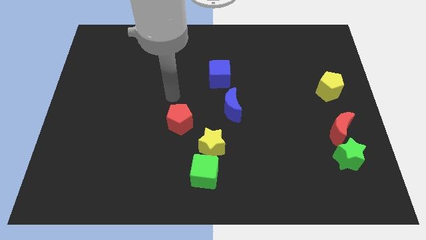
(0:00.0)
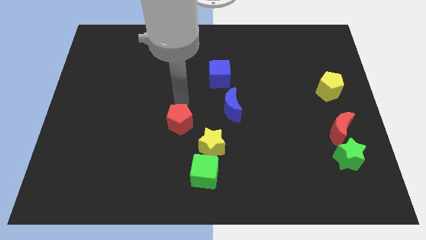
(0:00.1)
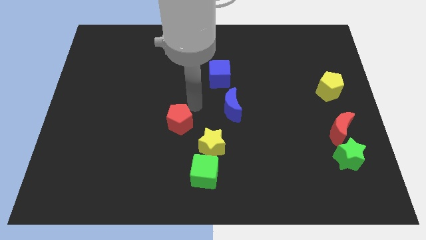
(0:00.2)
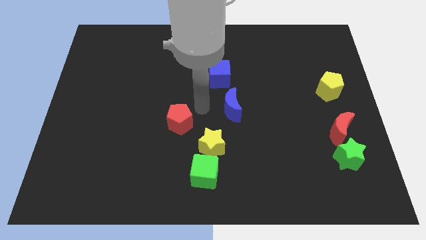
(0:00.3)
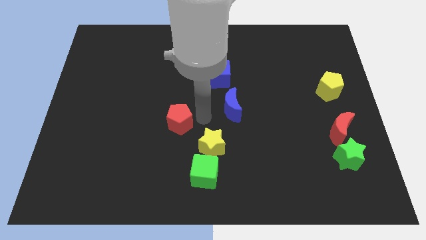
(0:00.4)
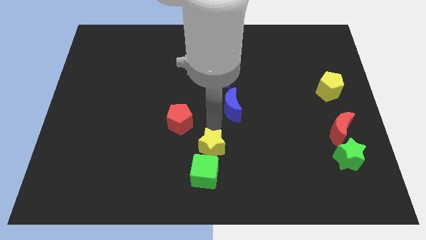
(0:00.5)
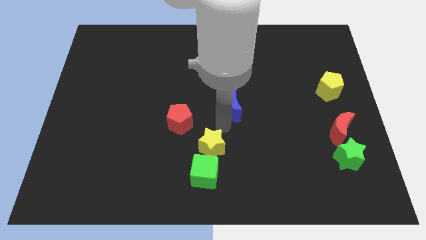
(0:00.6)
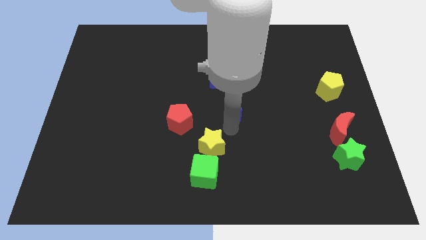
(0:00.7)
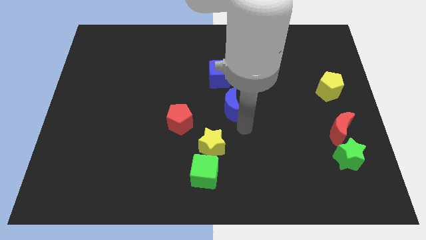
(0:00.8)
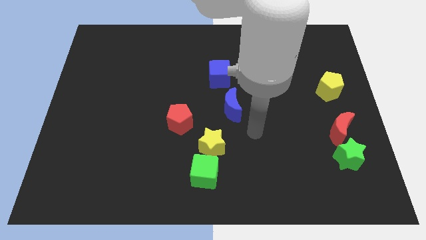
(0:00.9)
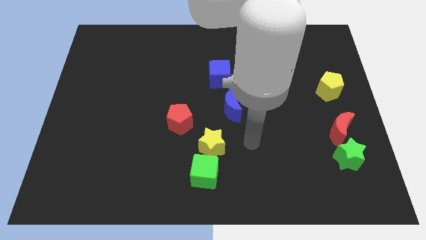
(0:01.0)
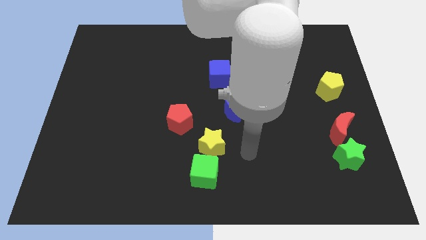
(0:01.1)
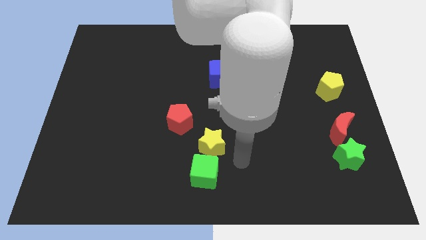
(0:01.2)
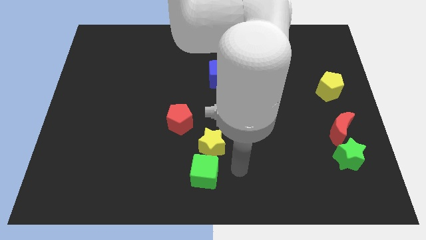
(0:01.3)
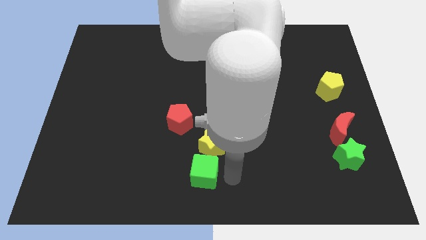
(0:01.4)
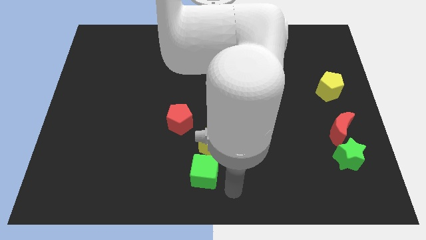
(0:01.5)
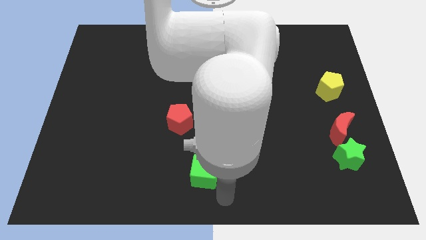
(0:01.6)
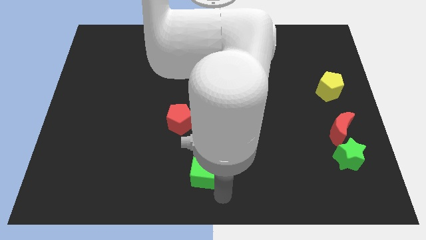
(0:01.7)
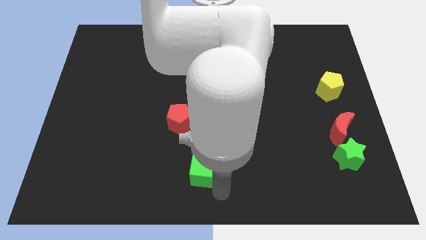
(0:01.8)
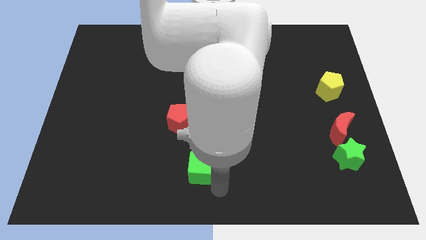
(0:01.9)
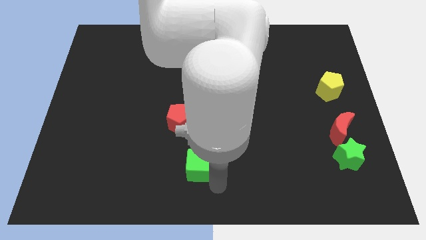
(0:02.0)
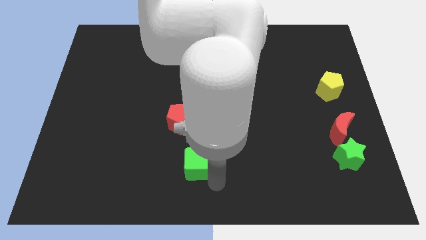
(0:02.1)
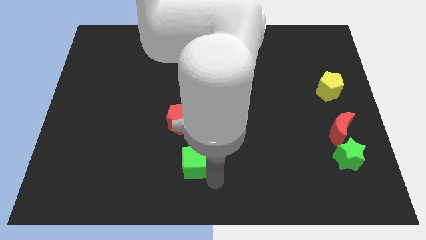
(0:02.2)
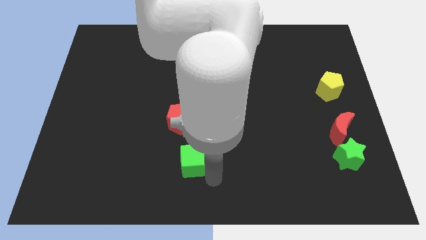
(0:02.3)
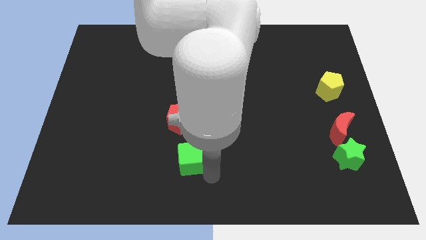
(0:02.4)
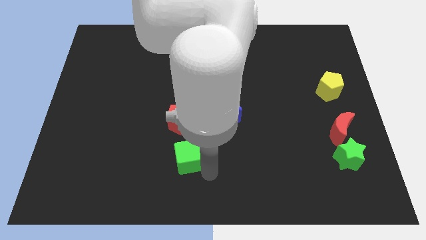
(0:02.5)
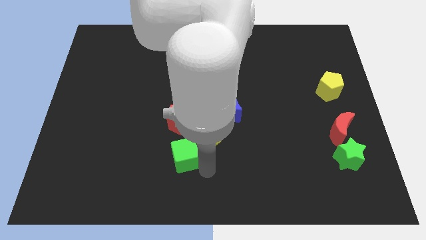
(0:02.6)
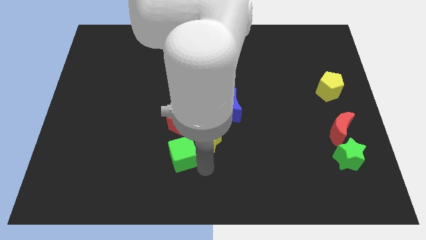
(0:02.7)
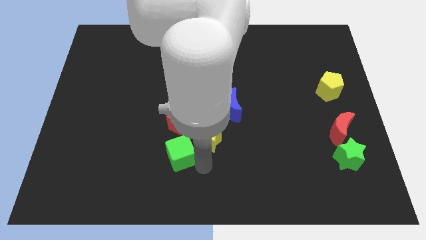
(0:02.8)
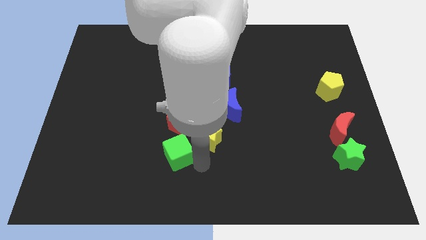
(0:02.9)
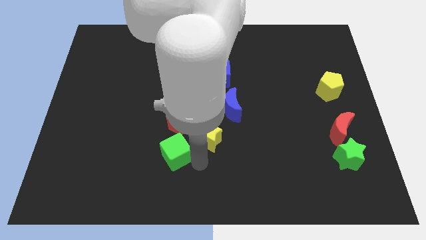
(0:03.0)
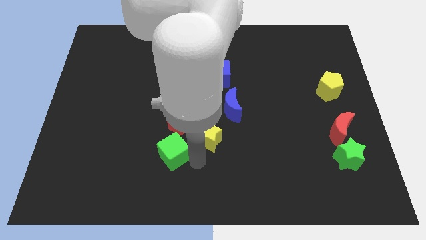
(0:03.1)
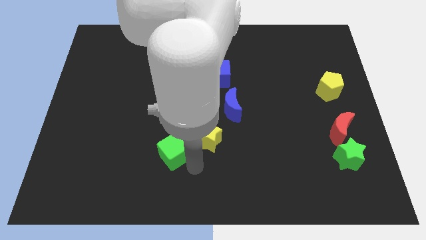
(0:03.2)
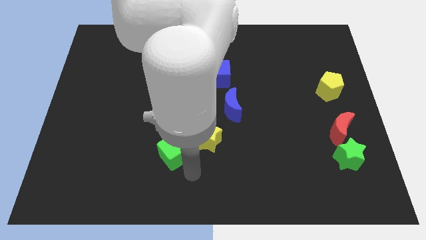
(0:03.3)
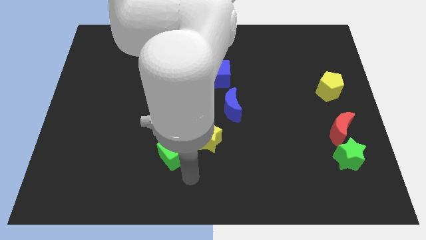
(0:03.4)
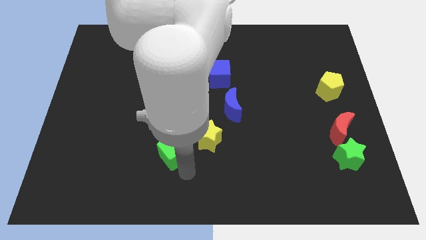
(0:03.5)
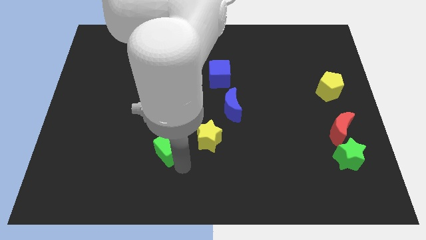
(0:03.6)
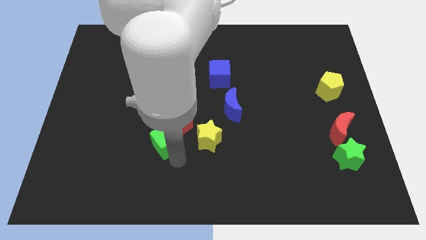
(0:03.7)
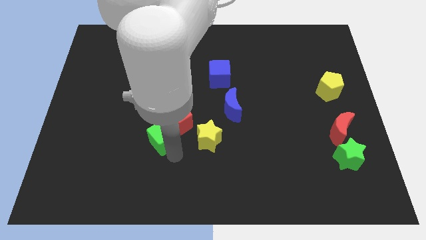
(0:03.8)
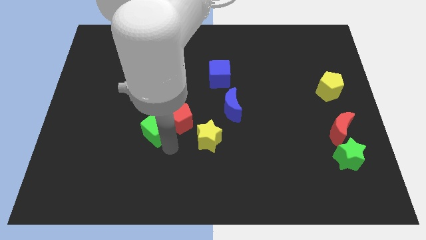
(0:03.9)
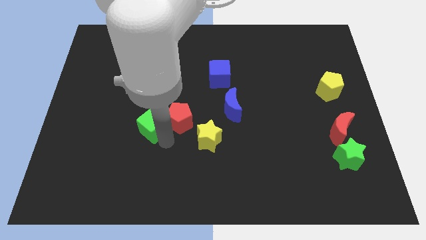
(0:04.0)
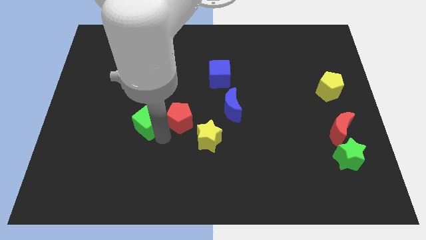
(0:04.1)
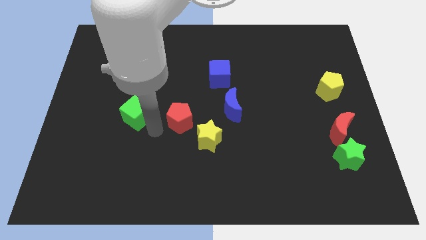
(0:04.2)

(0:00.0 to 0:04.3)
move the green cube diagonally up and left

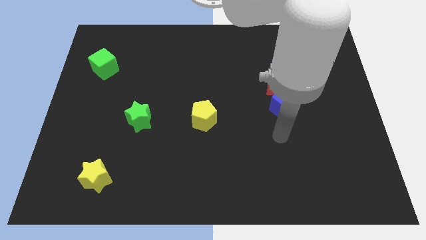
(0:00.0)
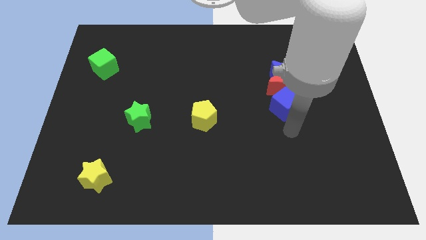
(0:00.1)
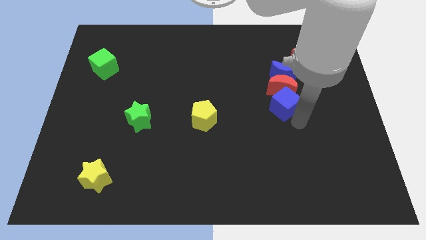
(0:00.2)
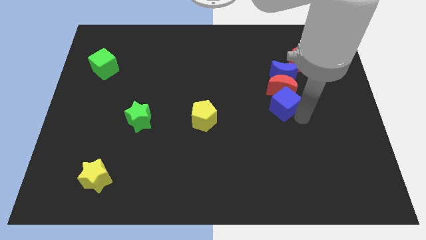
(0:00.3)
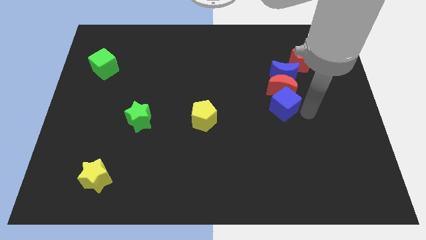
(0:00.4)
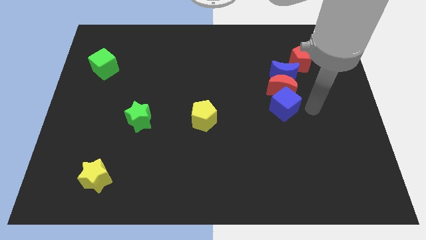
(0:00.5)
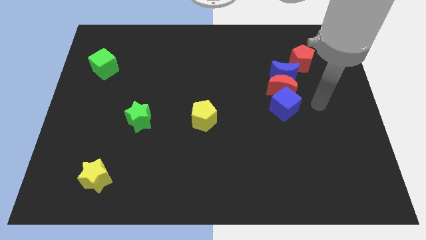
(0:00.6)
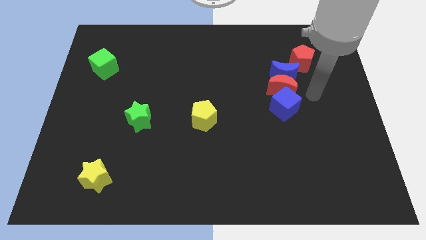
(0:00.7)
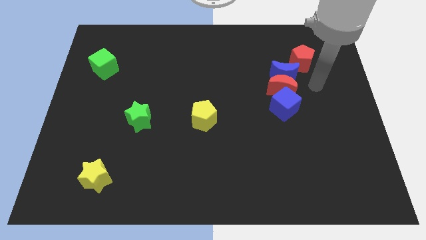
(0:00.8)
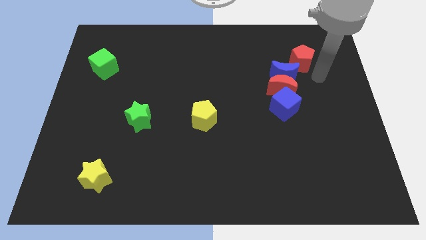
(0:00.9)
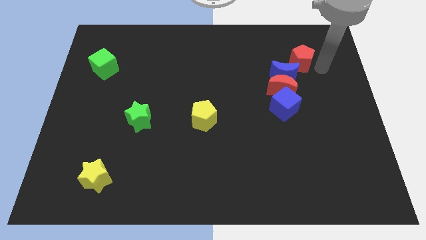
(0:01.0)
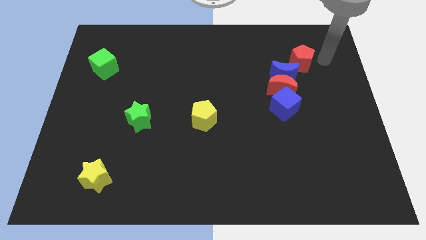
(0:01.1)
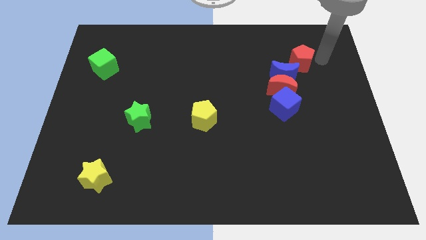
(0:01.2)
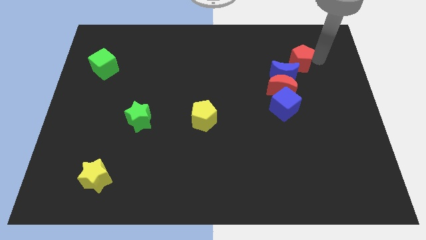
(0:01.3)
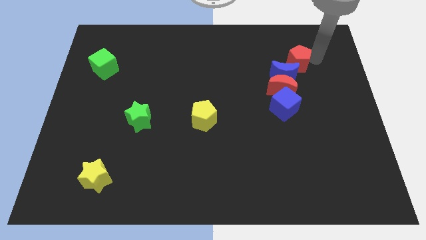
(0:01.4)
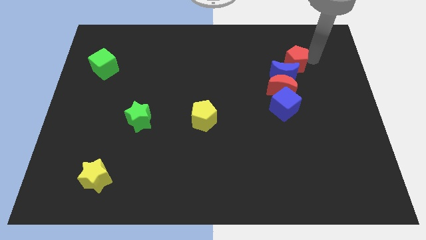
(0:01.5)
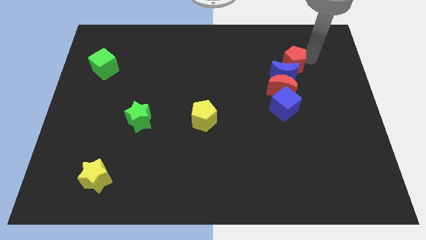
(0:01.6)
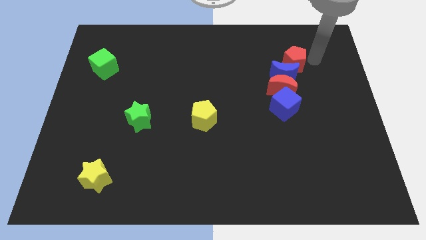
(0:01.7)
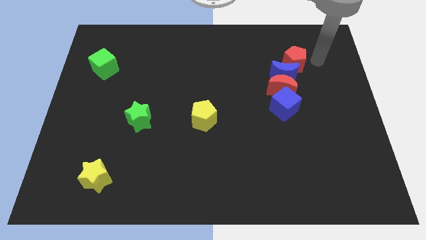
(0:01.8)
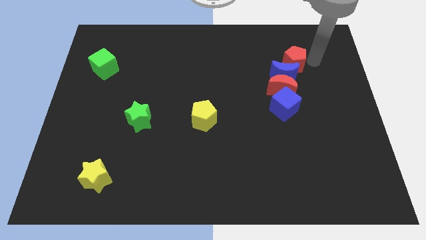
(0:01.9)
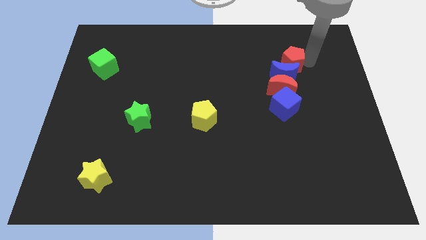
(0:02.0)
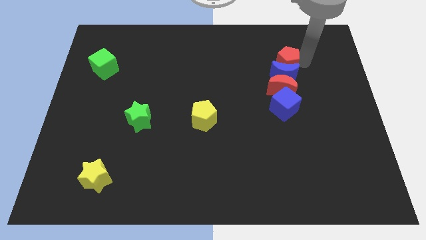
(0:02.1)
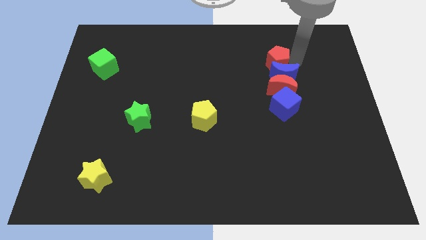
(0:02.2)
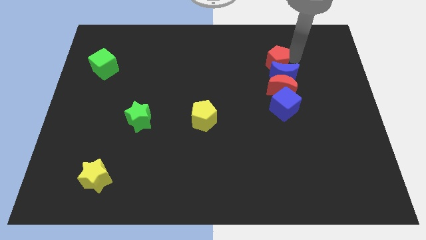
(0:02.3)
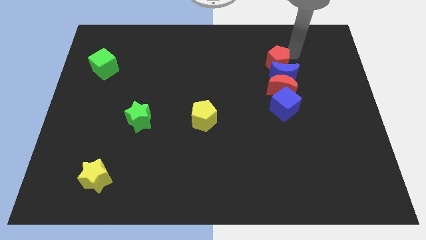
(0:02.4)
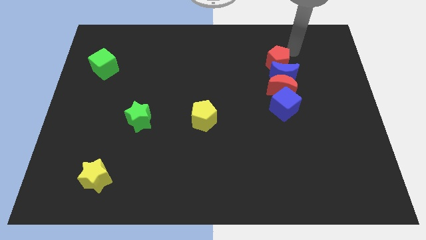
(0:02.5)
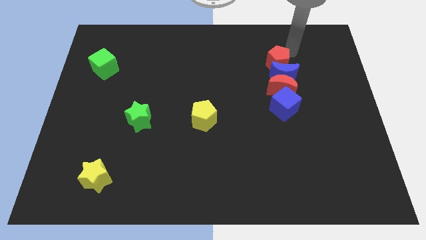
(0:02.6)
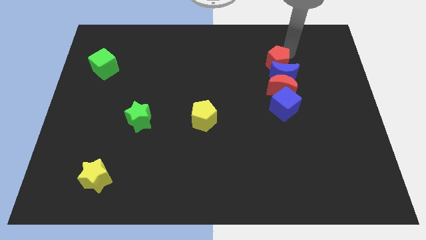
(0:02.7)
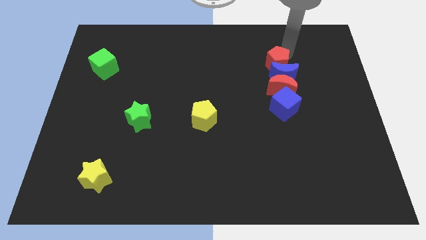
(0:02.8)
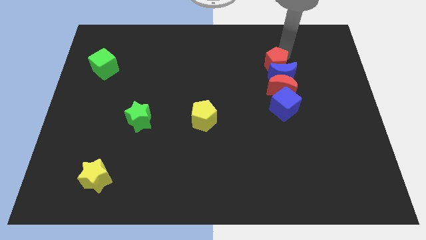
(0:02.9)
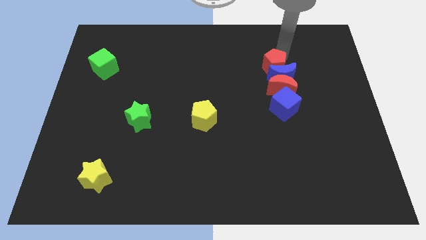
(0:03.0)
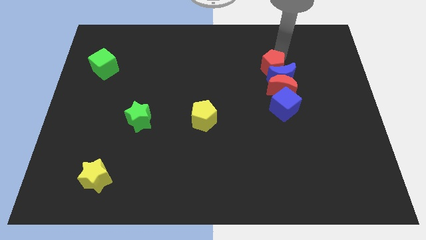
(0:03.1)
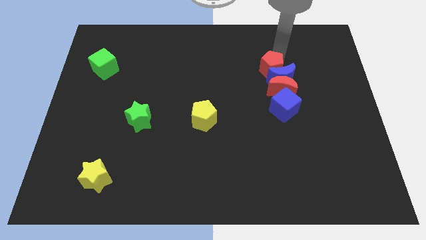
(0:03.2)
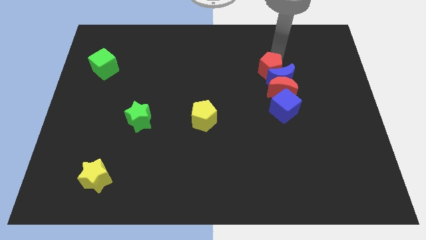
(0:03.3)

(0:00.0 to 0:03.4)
move the red pentagon down and to the left diagonally somewhat

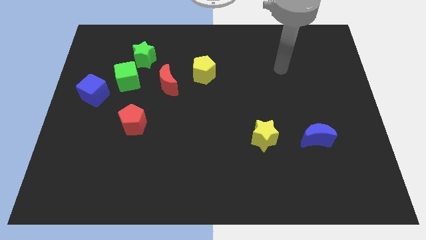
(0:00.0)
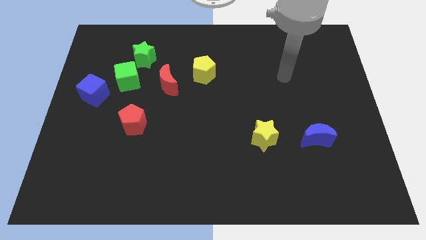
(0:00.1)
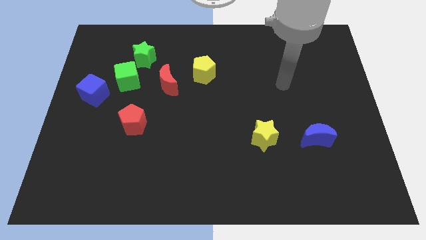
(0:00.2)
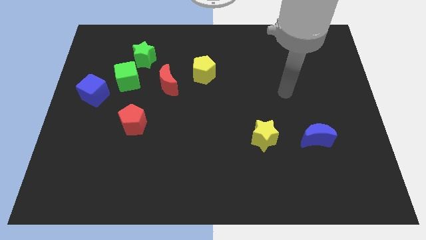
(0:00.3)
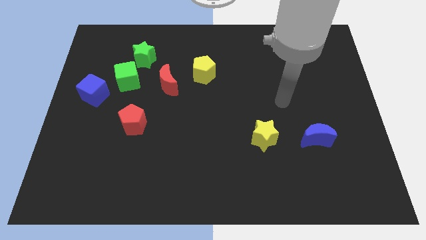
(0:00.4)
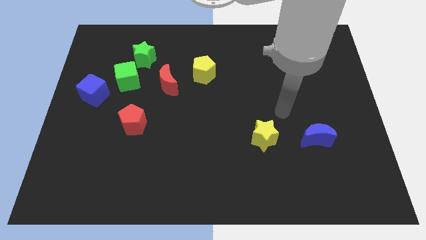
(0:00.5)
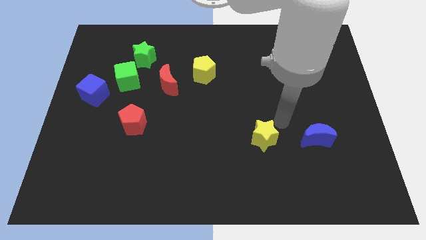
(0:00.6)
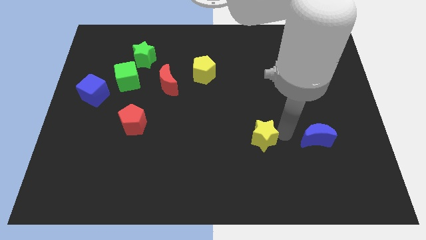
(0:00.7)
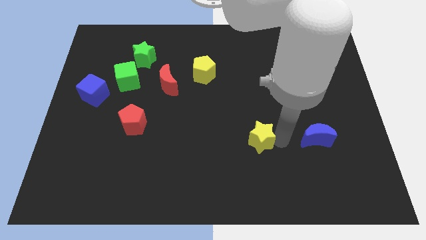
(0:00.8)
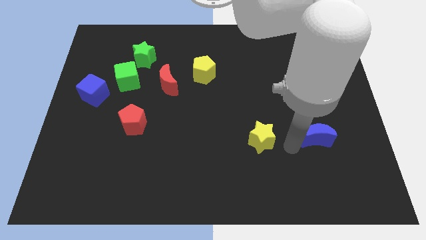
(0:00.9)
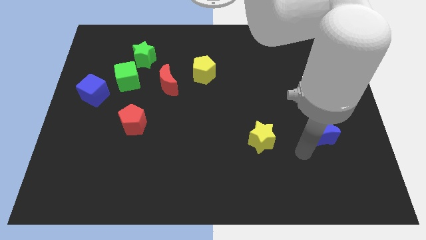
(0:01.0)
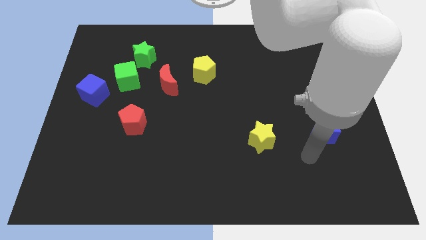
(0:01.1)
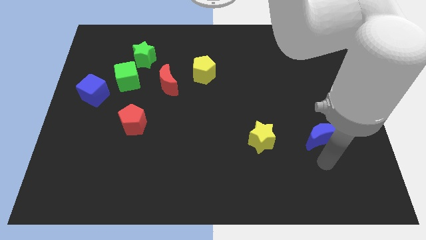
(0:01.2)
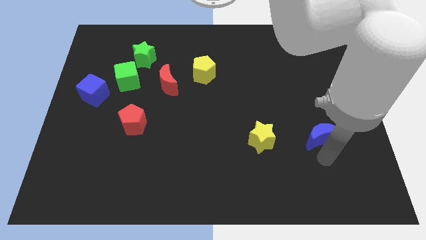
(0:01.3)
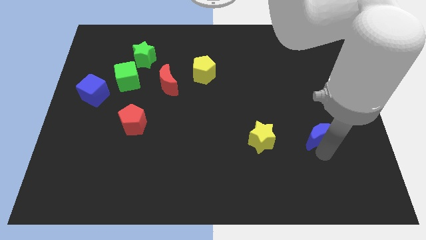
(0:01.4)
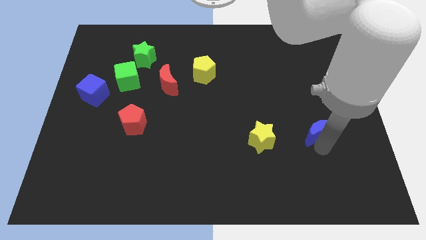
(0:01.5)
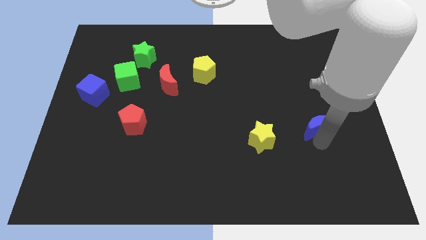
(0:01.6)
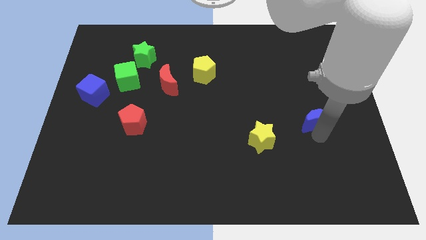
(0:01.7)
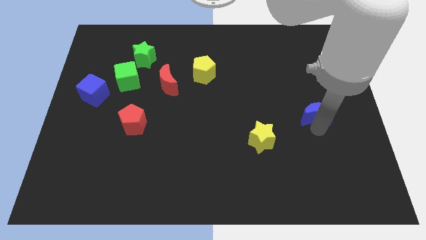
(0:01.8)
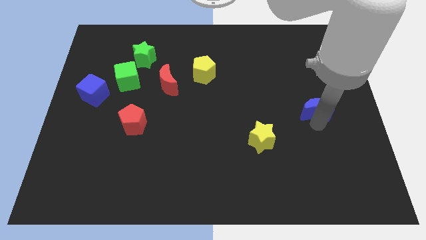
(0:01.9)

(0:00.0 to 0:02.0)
move the blue moon up somewhat
